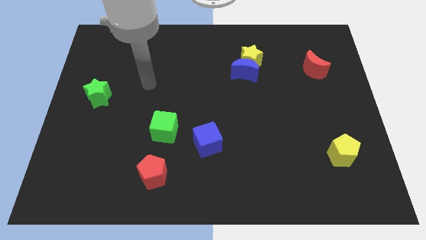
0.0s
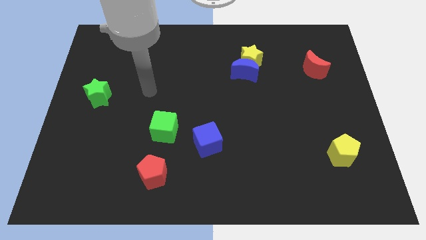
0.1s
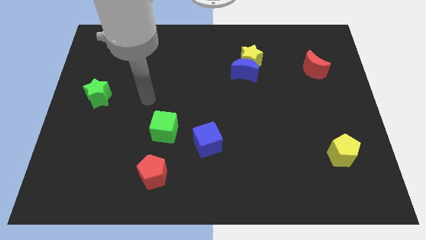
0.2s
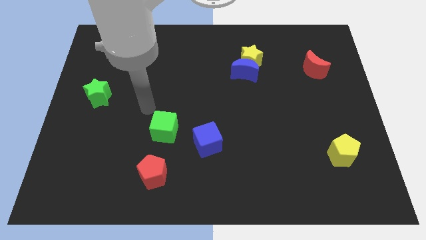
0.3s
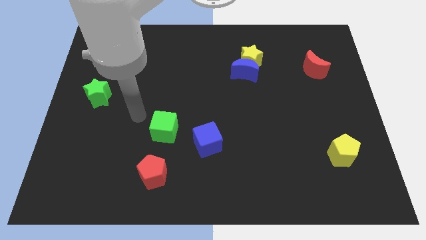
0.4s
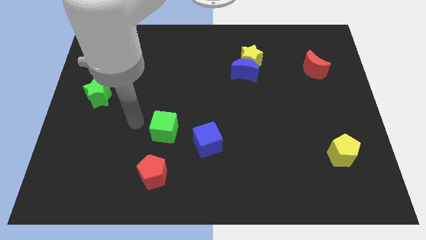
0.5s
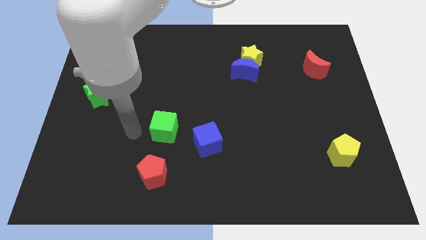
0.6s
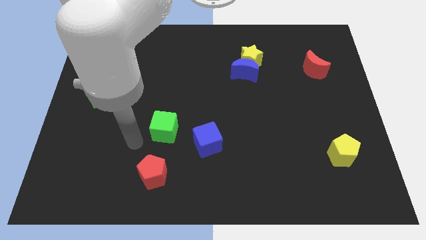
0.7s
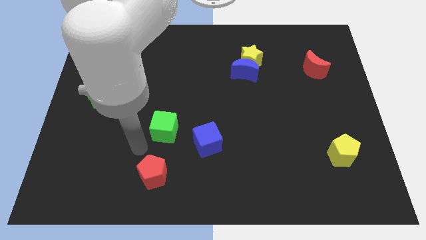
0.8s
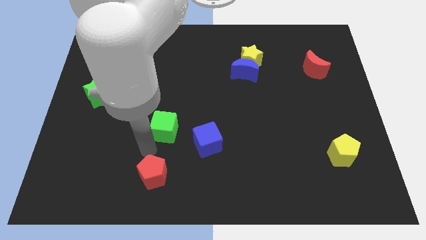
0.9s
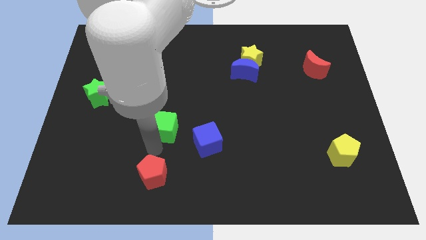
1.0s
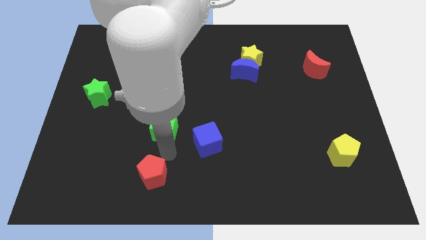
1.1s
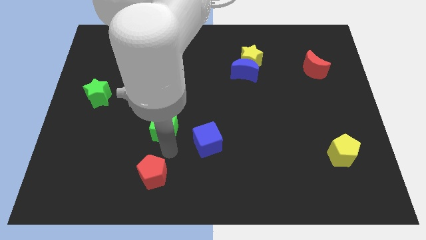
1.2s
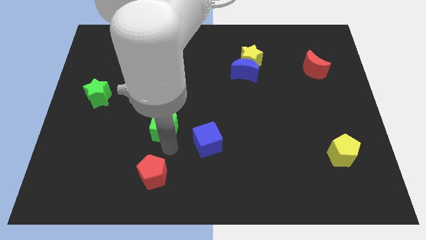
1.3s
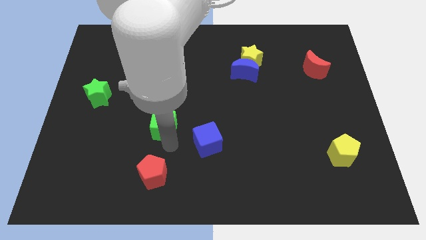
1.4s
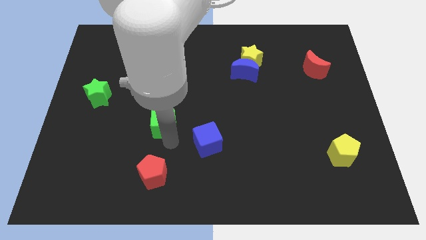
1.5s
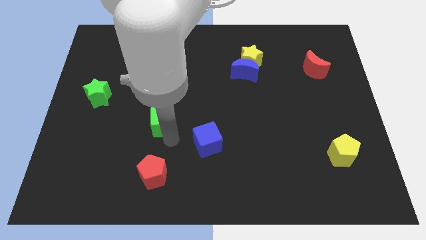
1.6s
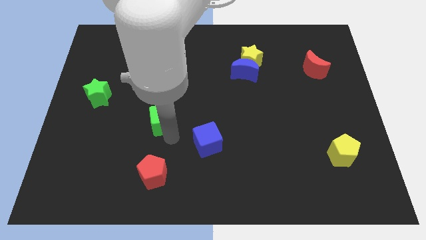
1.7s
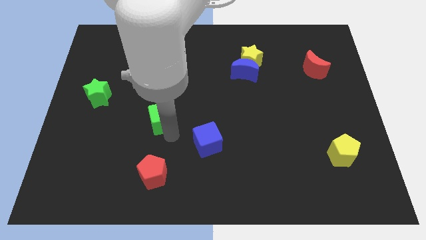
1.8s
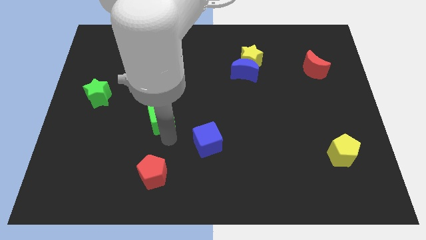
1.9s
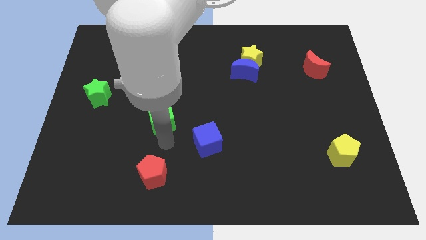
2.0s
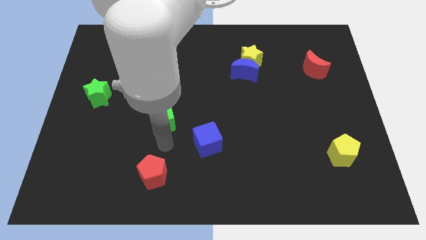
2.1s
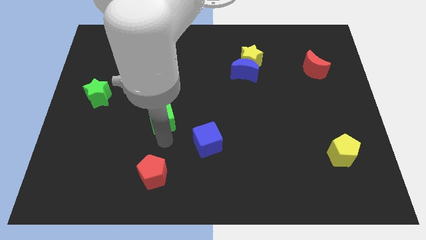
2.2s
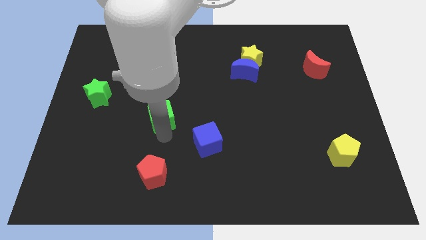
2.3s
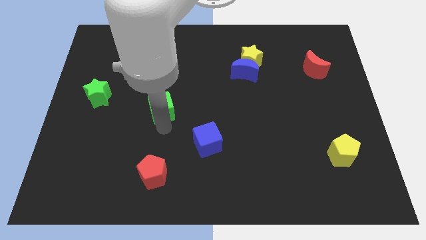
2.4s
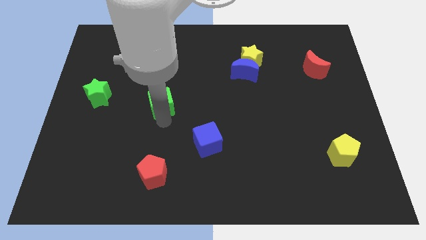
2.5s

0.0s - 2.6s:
slide the green cube upwards slightly

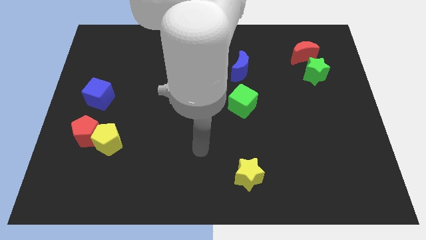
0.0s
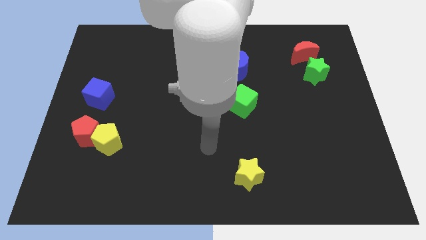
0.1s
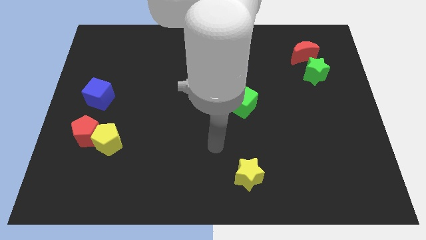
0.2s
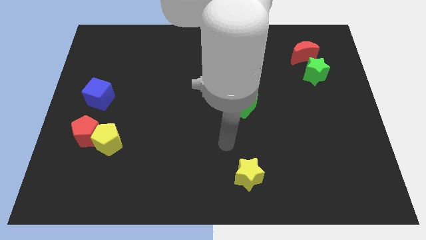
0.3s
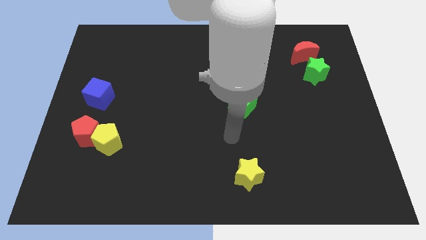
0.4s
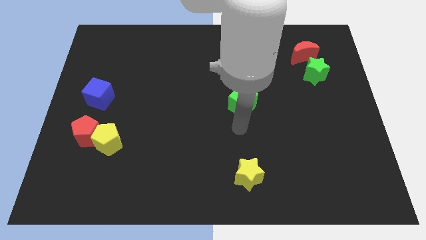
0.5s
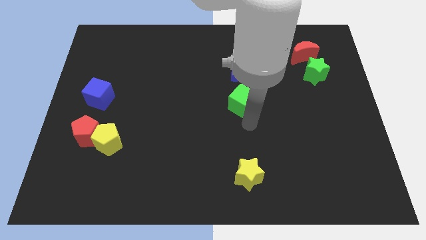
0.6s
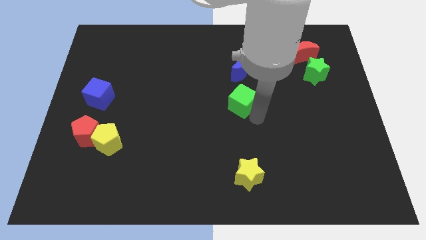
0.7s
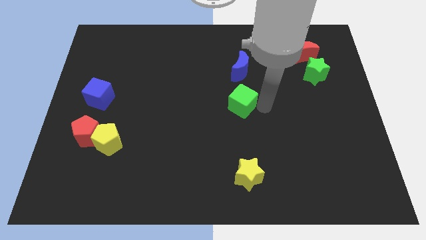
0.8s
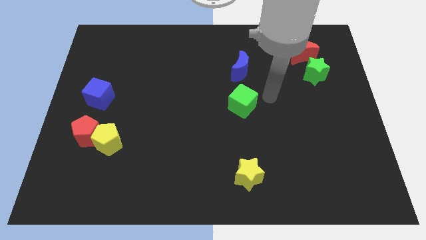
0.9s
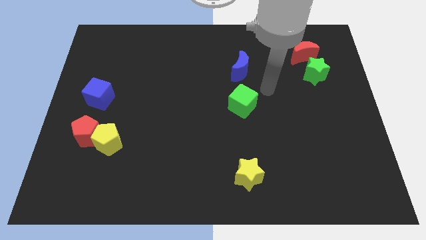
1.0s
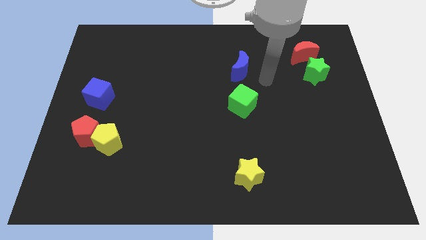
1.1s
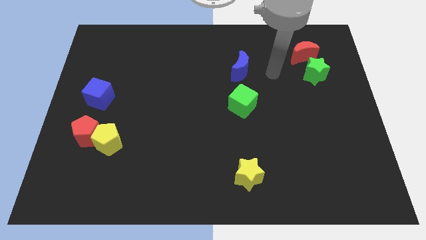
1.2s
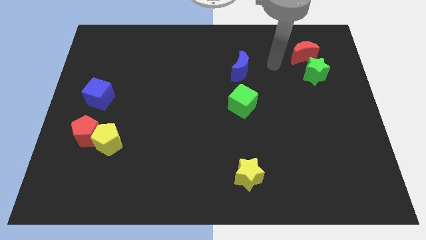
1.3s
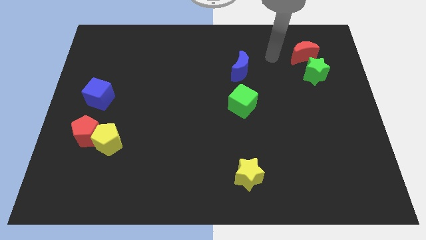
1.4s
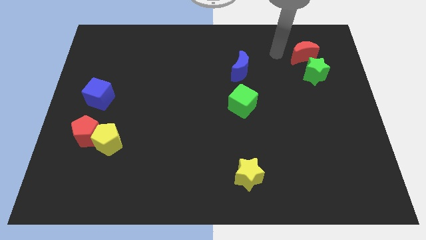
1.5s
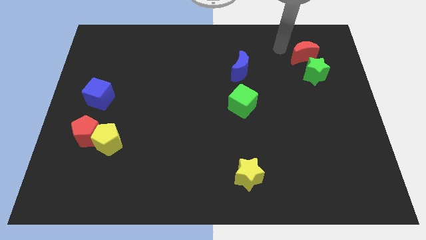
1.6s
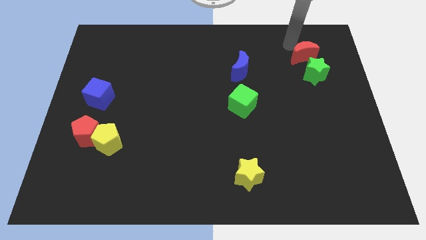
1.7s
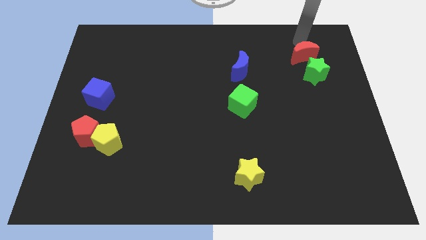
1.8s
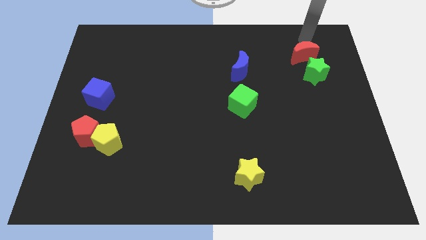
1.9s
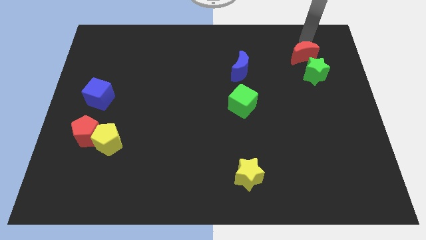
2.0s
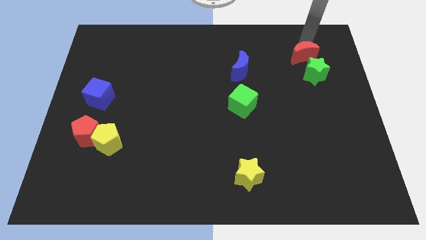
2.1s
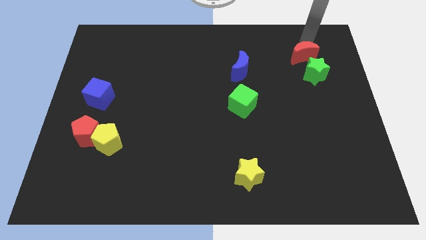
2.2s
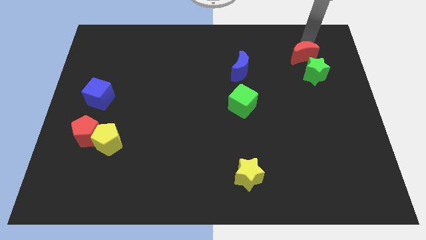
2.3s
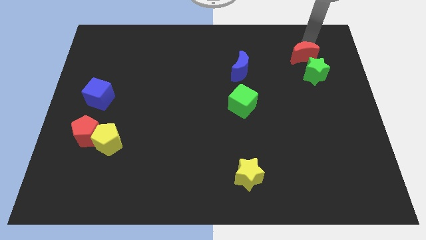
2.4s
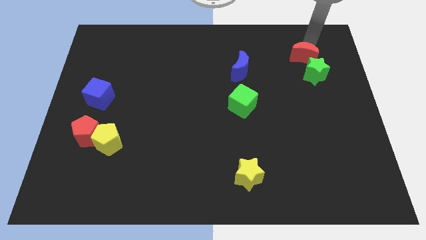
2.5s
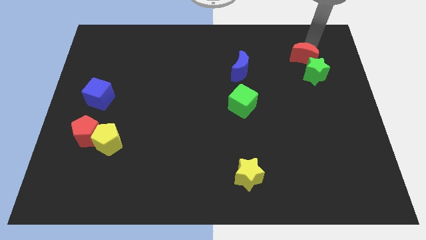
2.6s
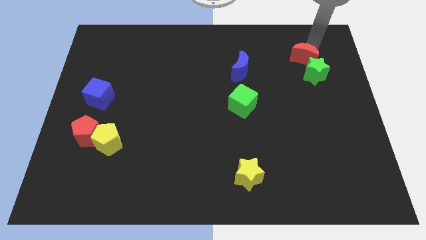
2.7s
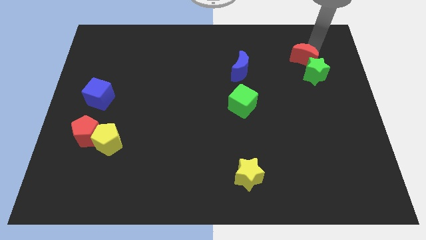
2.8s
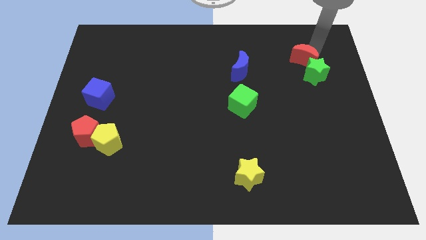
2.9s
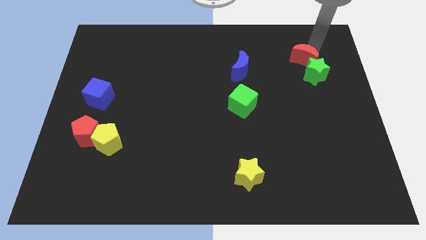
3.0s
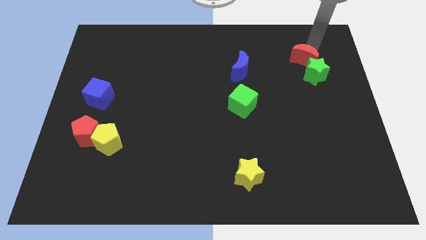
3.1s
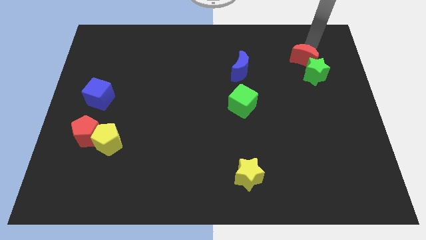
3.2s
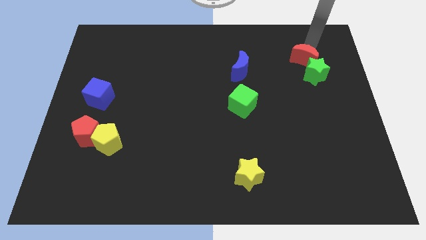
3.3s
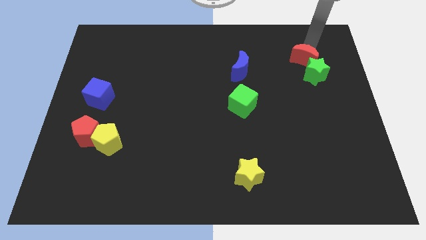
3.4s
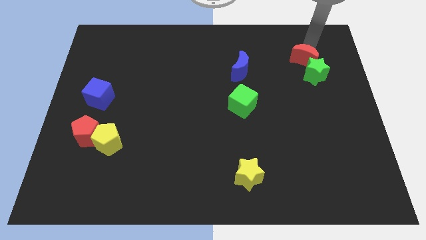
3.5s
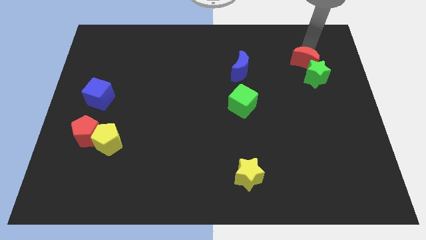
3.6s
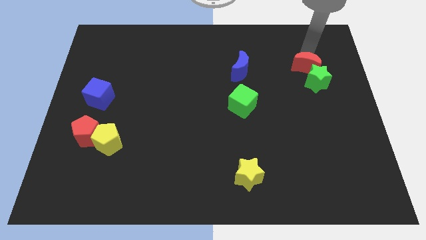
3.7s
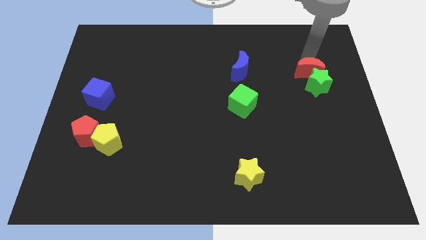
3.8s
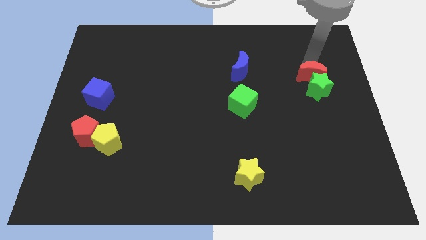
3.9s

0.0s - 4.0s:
slightly push the red moon down

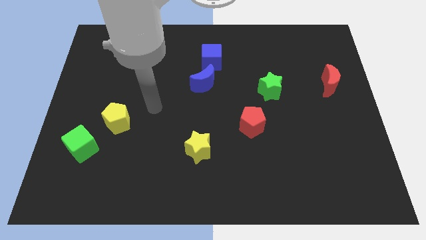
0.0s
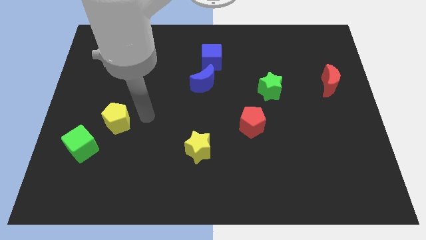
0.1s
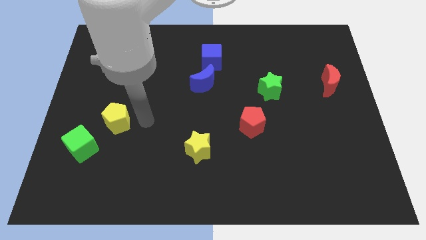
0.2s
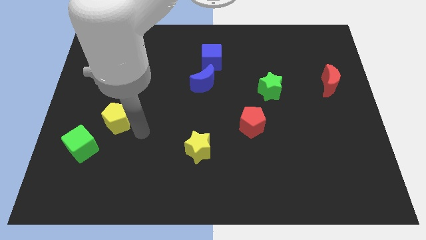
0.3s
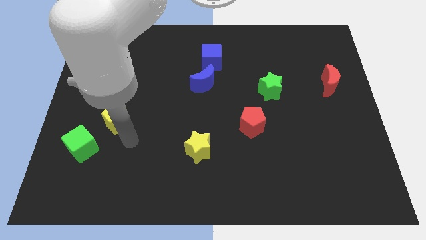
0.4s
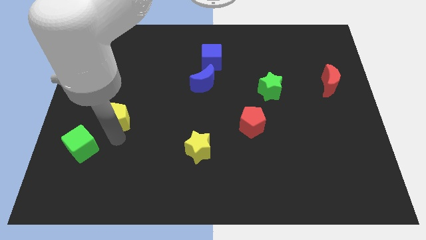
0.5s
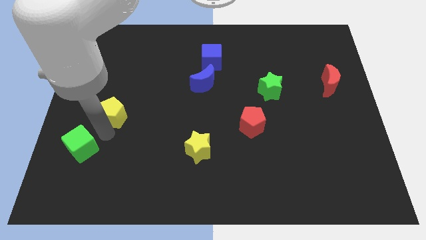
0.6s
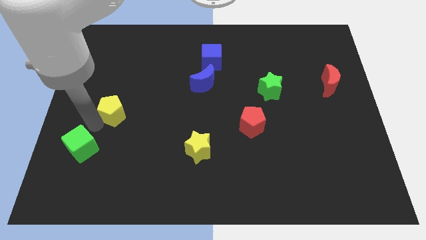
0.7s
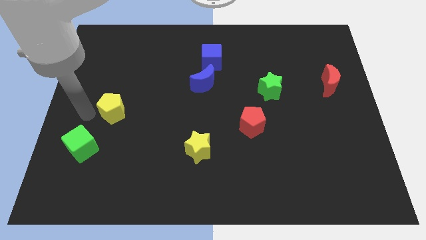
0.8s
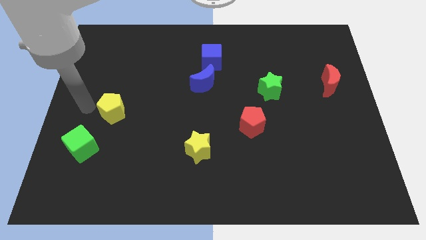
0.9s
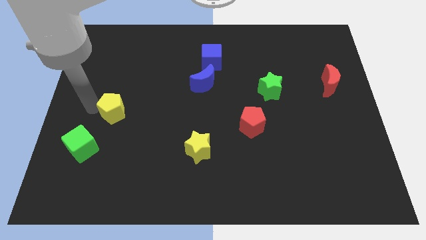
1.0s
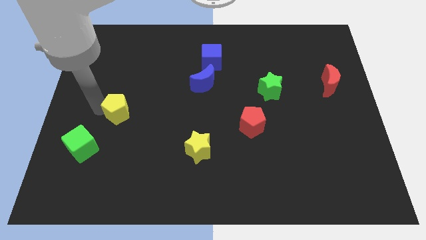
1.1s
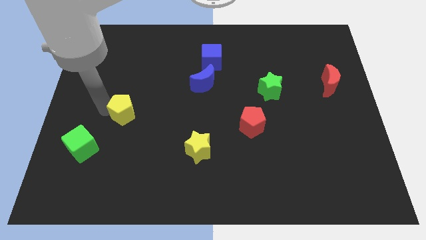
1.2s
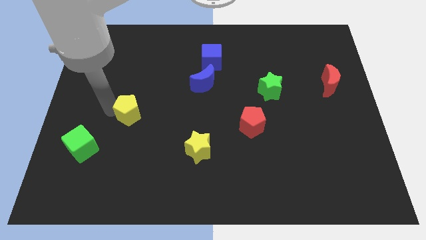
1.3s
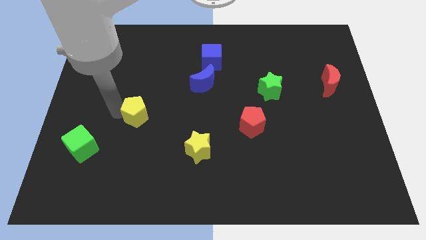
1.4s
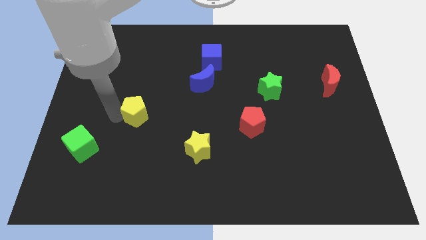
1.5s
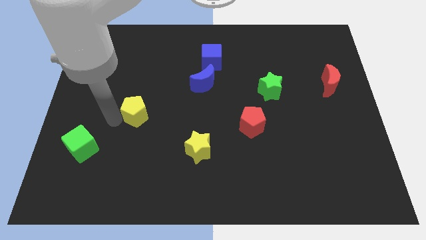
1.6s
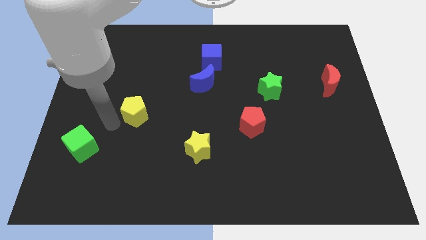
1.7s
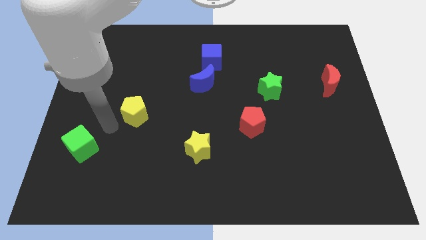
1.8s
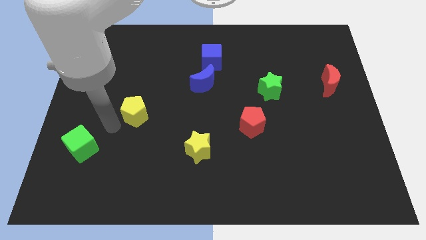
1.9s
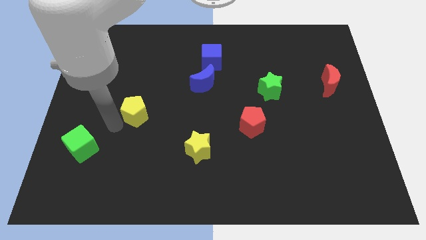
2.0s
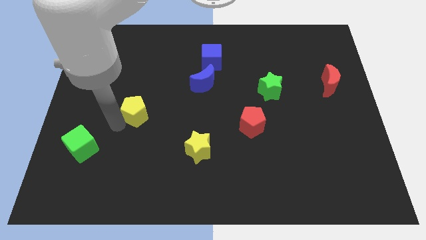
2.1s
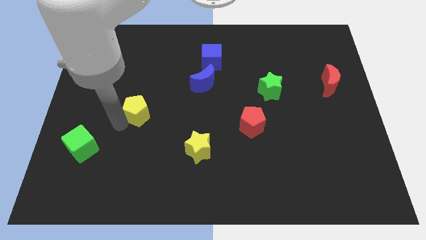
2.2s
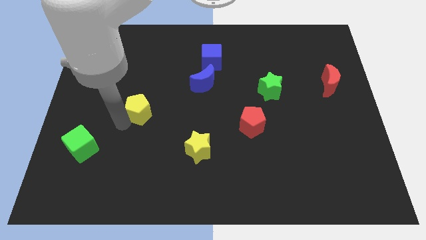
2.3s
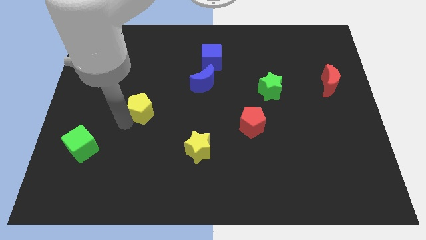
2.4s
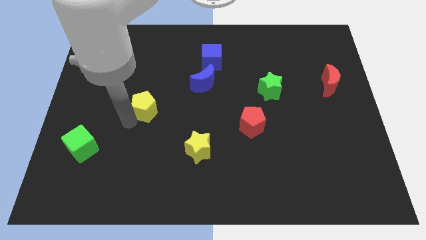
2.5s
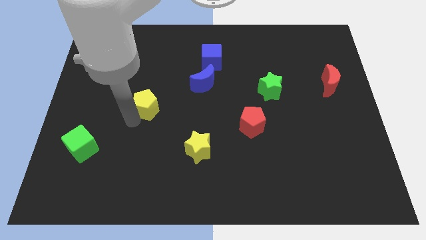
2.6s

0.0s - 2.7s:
slide the yellow pentagon a little bit up and then right
